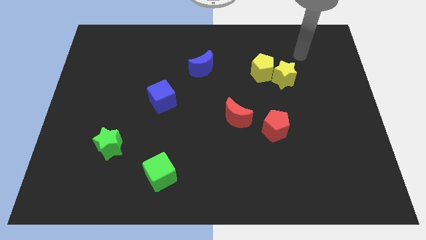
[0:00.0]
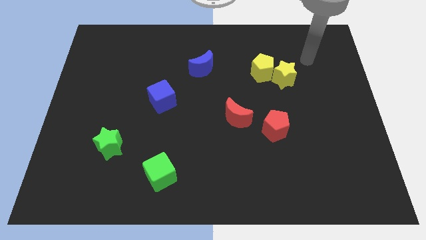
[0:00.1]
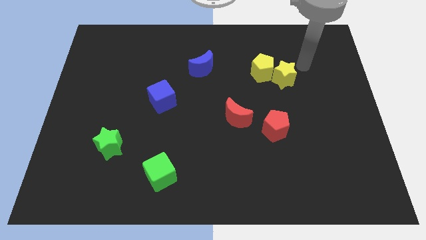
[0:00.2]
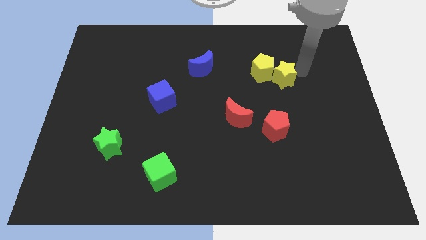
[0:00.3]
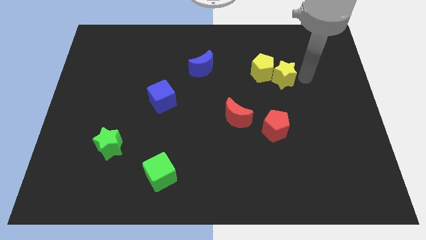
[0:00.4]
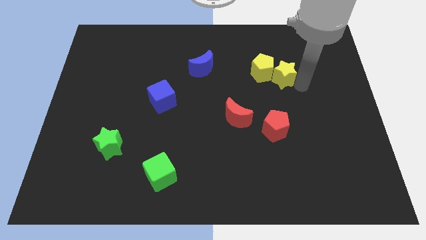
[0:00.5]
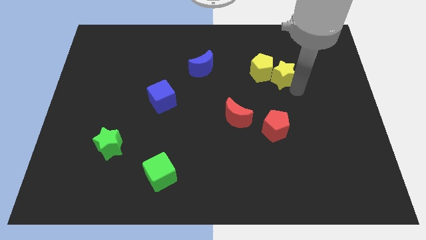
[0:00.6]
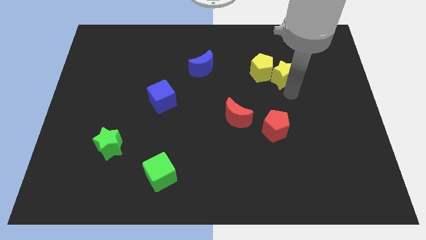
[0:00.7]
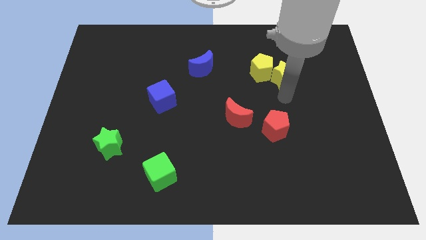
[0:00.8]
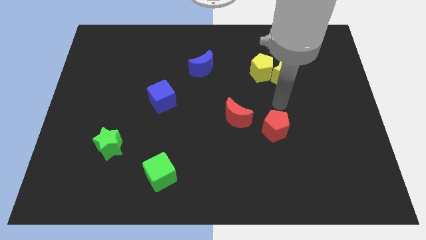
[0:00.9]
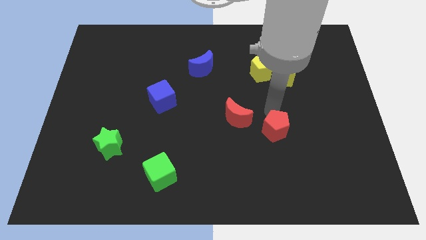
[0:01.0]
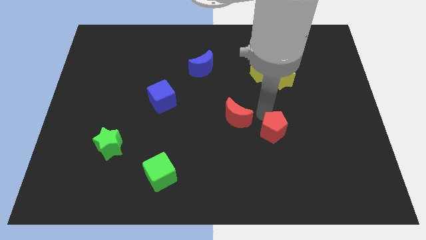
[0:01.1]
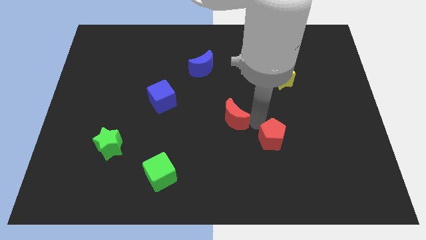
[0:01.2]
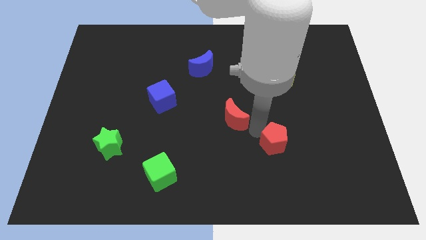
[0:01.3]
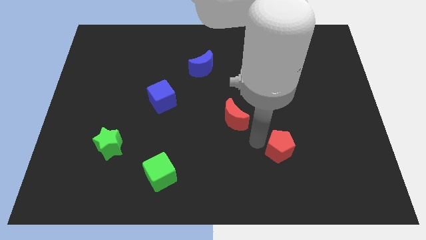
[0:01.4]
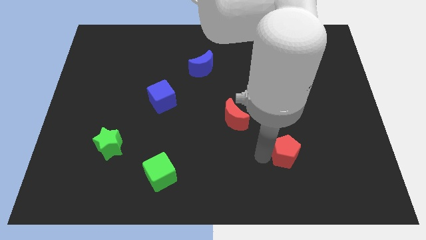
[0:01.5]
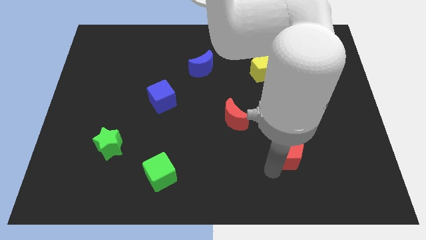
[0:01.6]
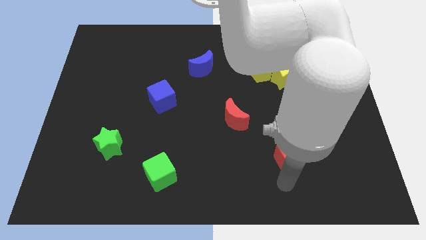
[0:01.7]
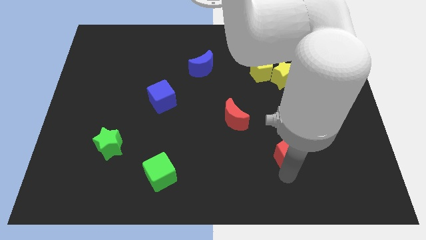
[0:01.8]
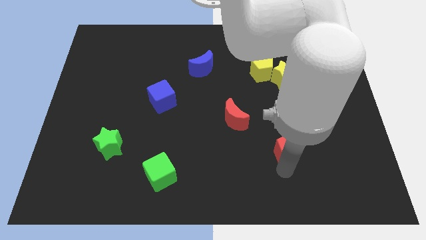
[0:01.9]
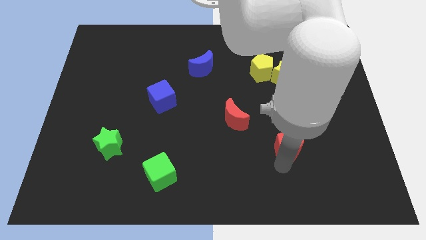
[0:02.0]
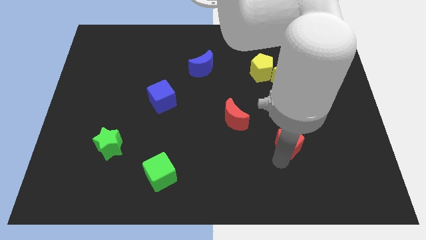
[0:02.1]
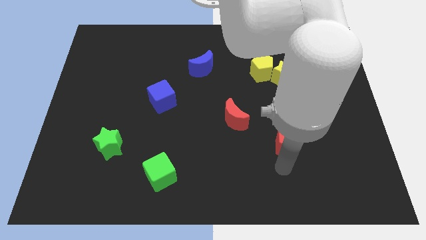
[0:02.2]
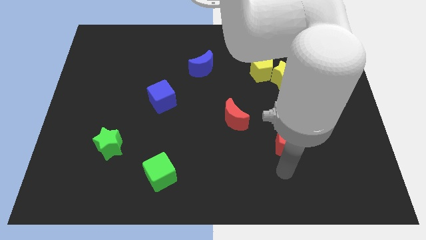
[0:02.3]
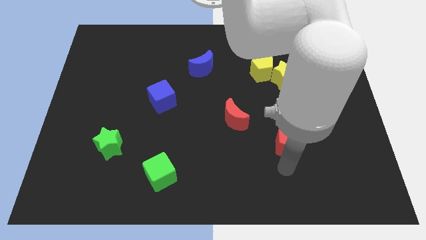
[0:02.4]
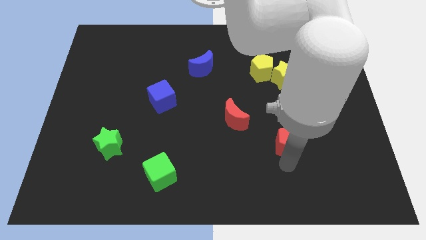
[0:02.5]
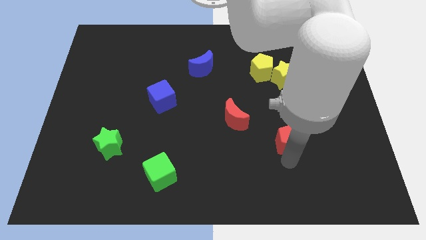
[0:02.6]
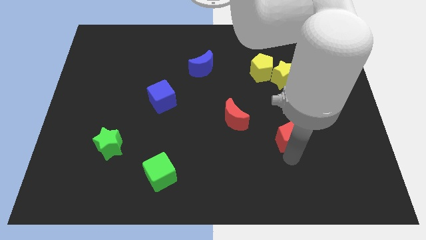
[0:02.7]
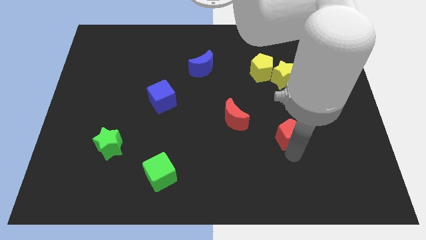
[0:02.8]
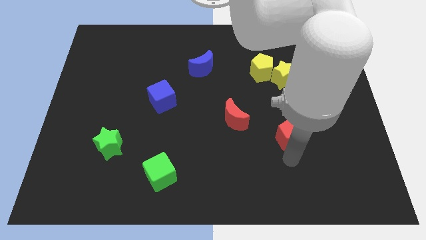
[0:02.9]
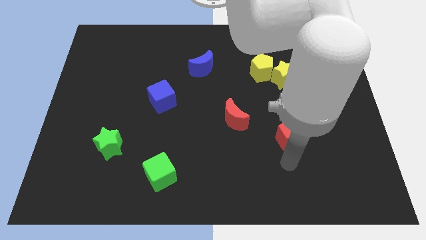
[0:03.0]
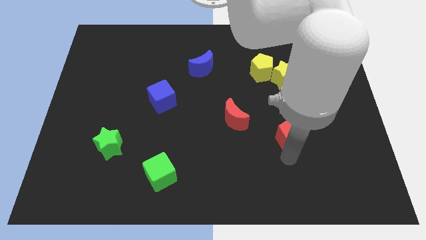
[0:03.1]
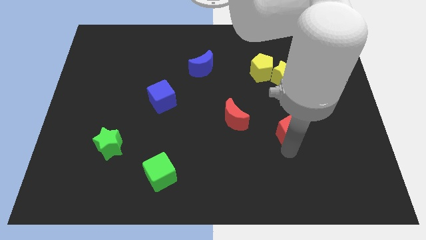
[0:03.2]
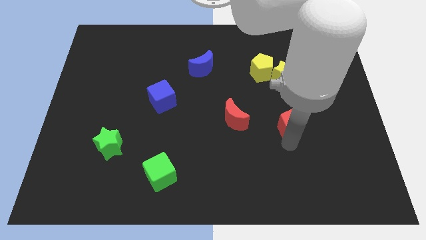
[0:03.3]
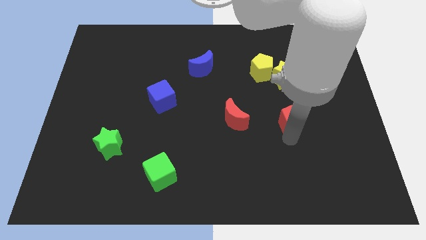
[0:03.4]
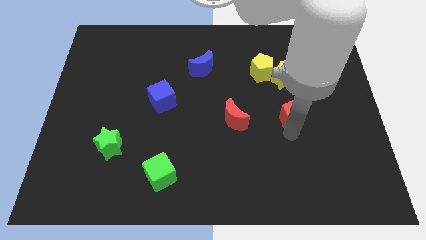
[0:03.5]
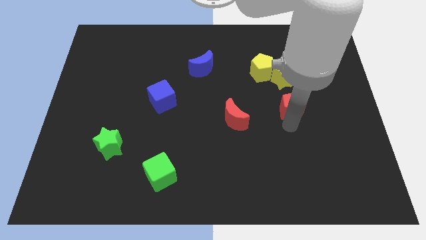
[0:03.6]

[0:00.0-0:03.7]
move the red pentagon diagonally up and right a little

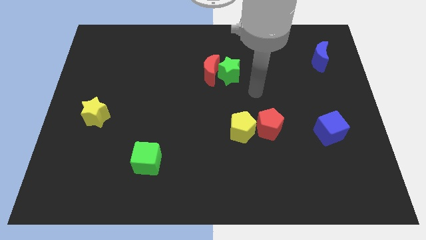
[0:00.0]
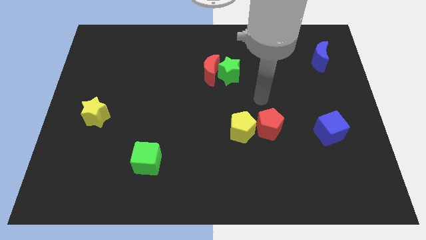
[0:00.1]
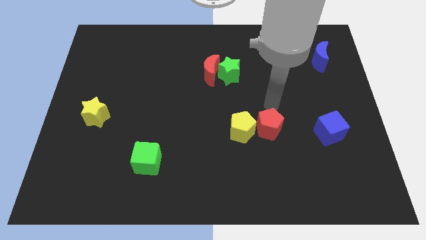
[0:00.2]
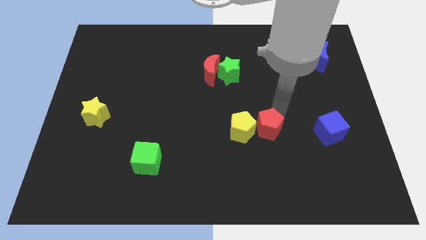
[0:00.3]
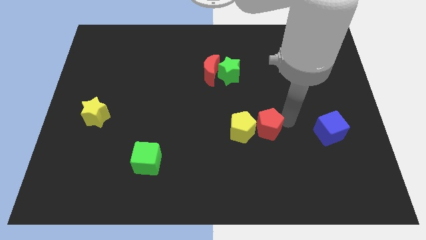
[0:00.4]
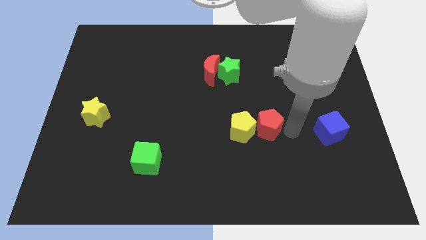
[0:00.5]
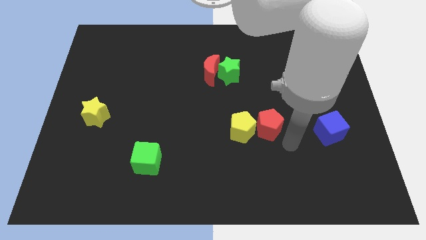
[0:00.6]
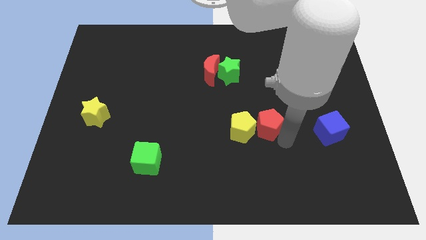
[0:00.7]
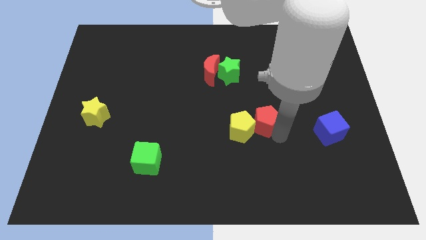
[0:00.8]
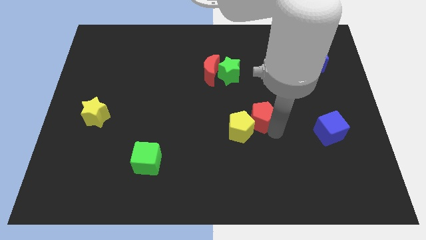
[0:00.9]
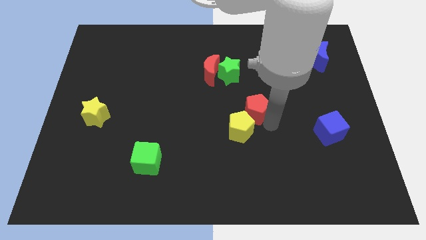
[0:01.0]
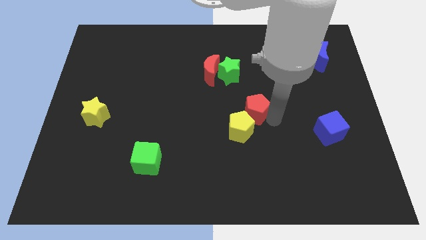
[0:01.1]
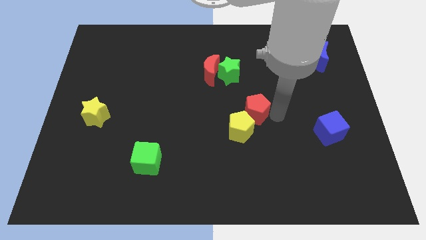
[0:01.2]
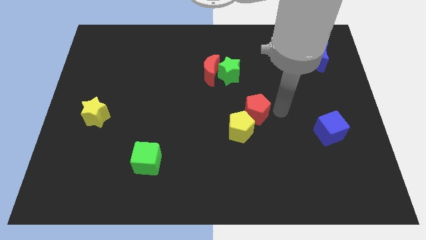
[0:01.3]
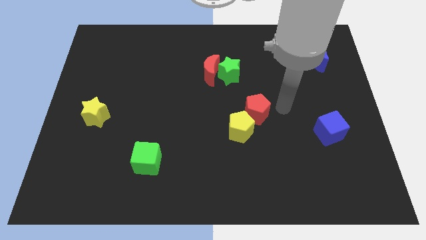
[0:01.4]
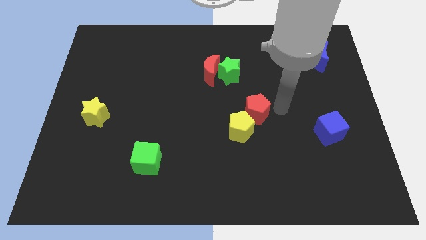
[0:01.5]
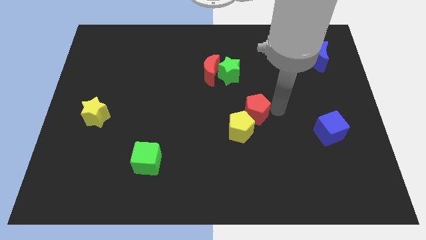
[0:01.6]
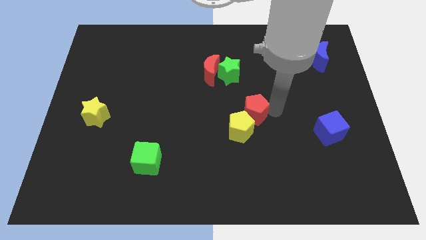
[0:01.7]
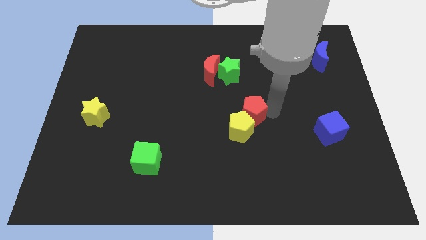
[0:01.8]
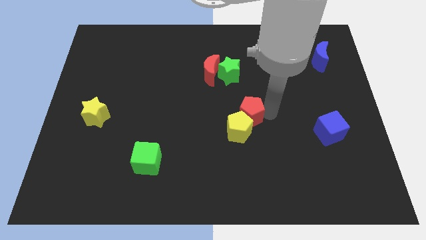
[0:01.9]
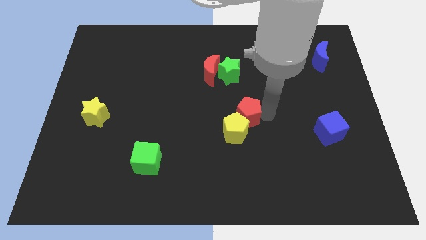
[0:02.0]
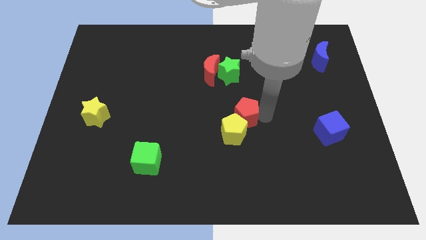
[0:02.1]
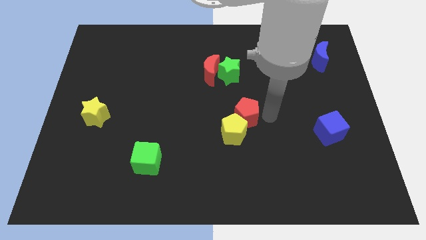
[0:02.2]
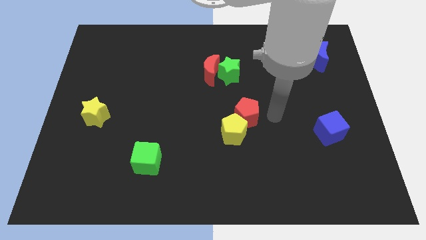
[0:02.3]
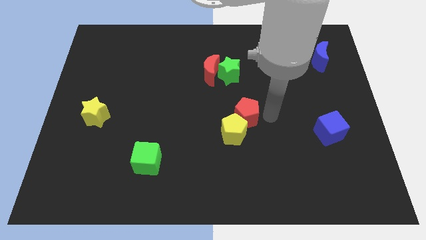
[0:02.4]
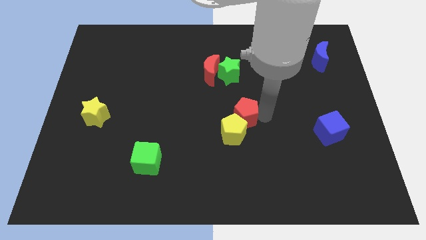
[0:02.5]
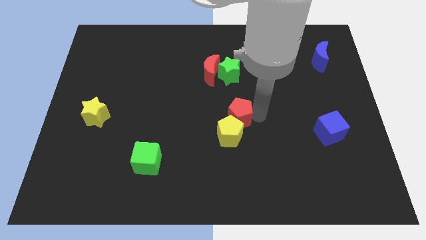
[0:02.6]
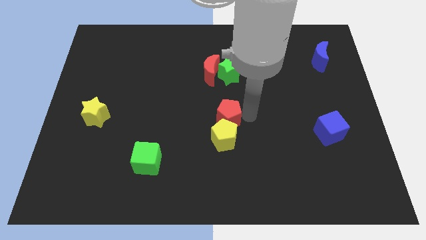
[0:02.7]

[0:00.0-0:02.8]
slide the red pentagon a bit to the left

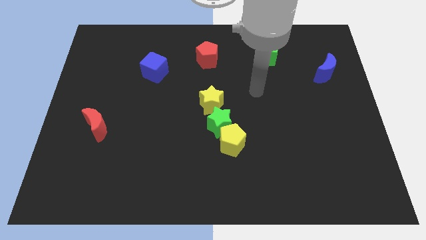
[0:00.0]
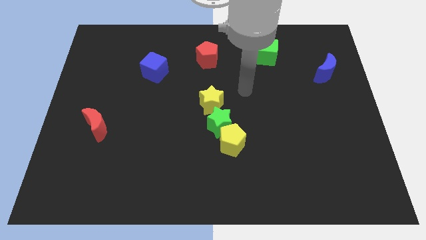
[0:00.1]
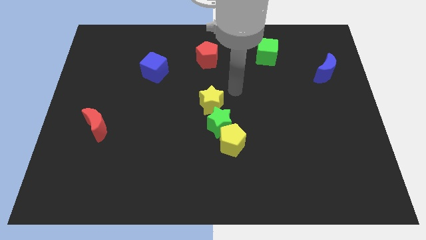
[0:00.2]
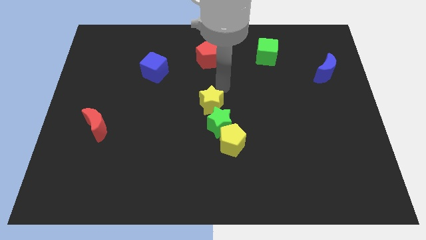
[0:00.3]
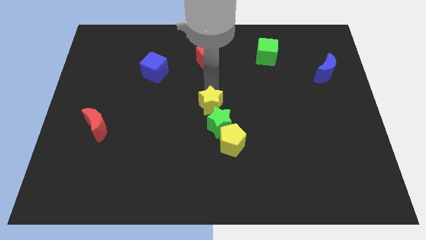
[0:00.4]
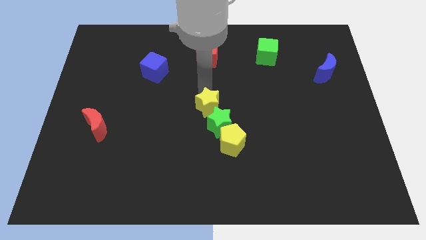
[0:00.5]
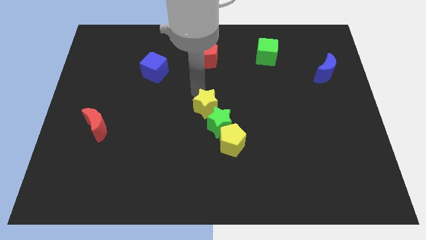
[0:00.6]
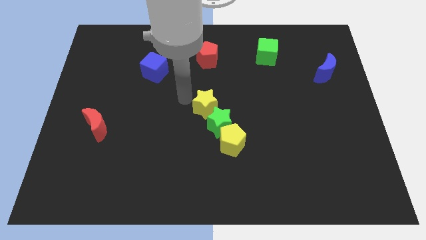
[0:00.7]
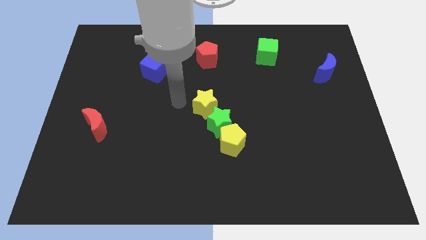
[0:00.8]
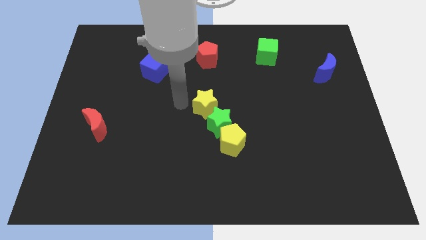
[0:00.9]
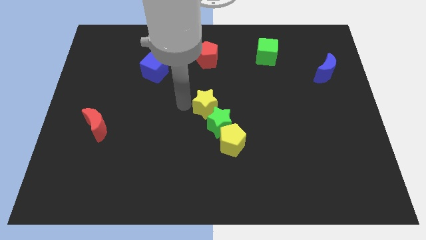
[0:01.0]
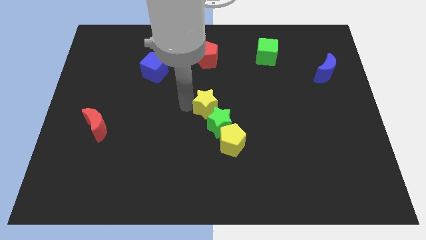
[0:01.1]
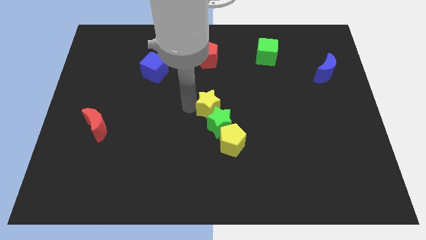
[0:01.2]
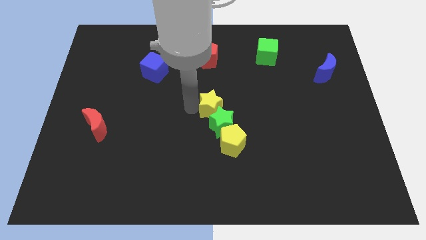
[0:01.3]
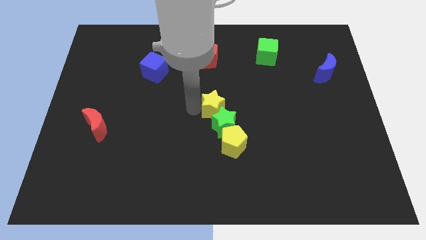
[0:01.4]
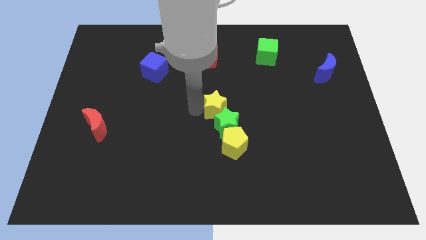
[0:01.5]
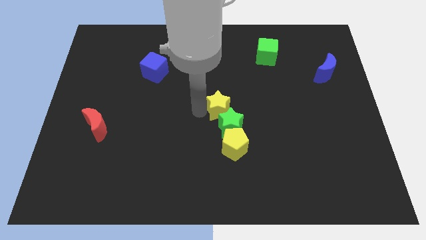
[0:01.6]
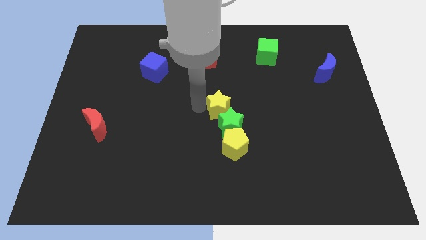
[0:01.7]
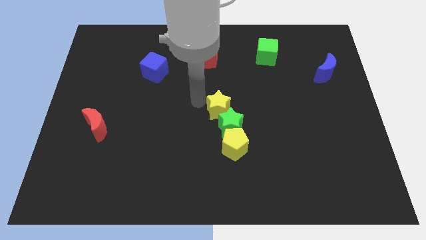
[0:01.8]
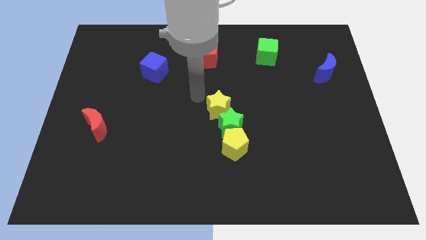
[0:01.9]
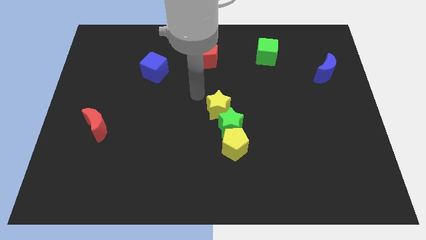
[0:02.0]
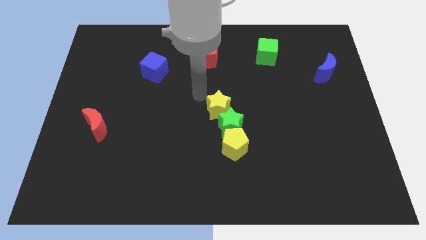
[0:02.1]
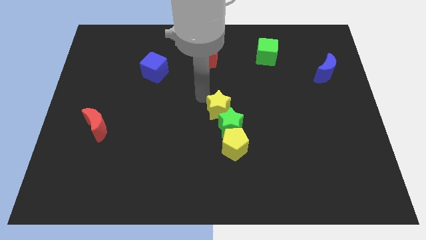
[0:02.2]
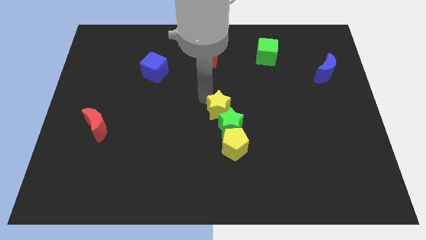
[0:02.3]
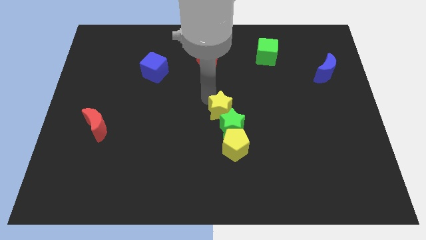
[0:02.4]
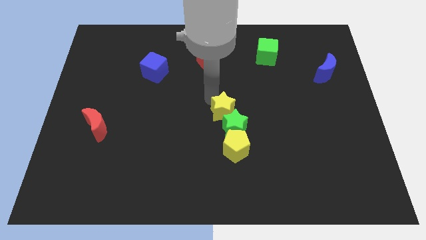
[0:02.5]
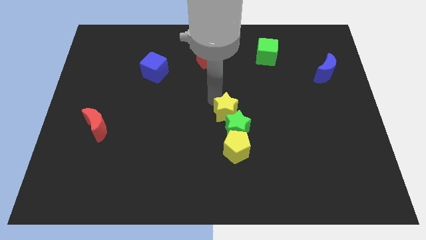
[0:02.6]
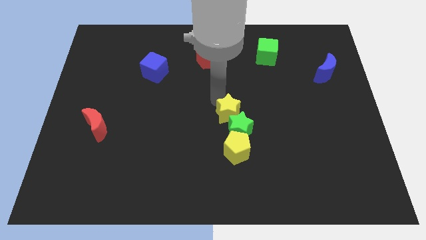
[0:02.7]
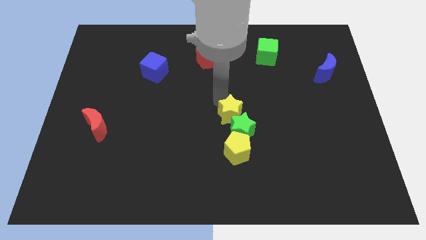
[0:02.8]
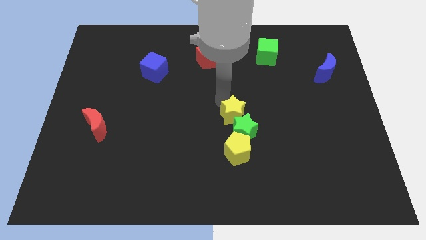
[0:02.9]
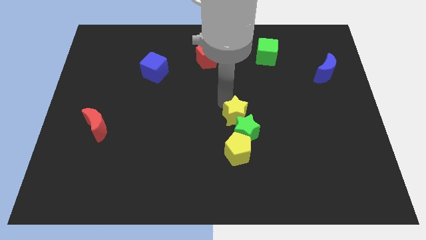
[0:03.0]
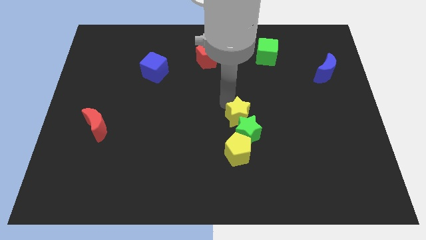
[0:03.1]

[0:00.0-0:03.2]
slide the yellow star a little bit diagonally downwards and right
